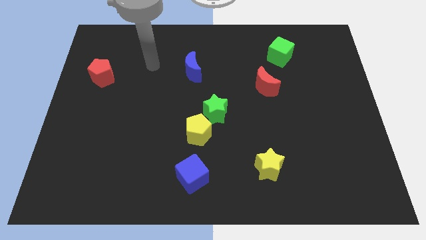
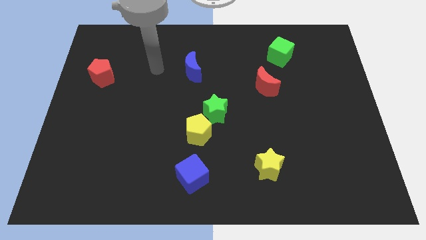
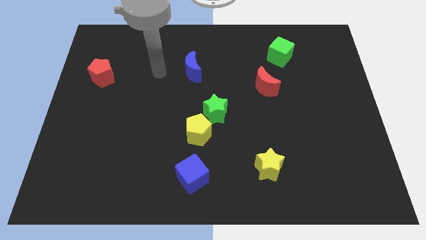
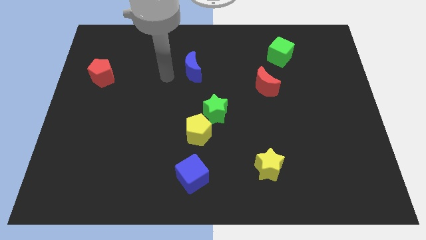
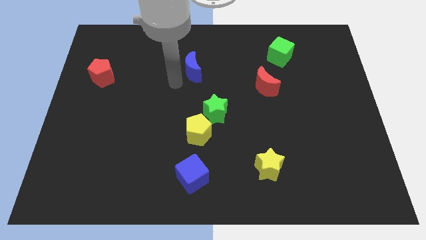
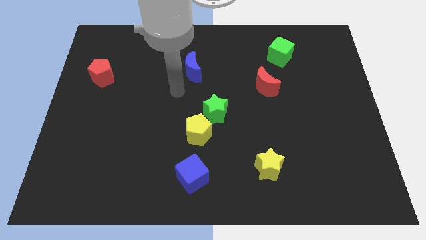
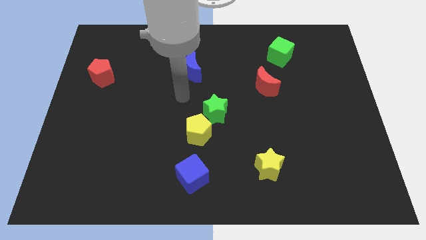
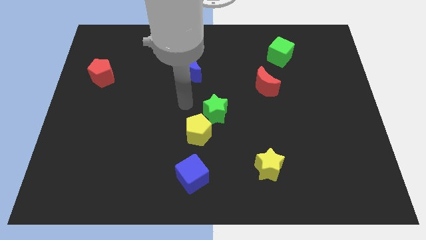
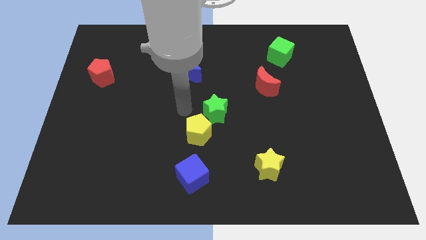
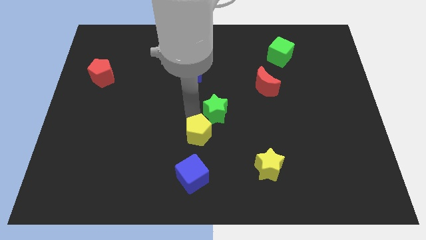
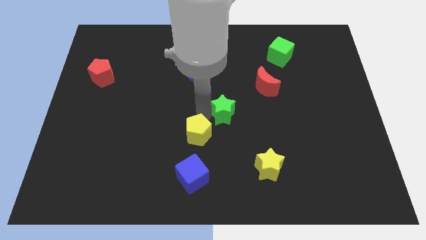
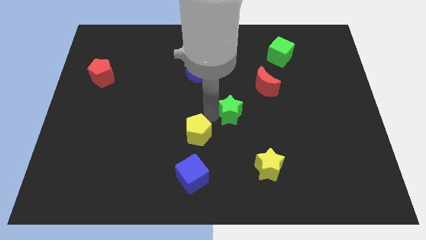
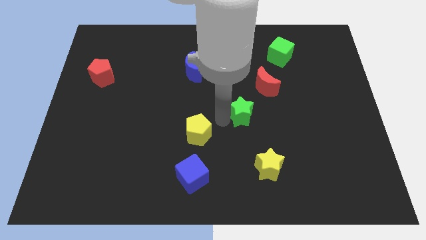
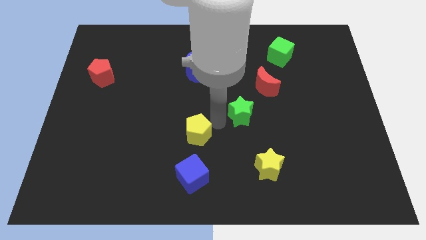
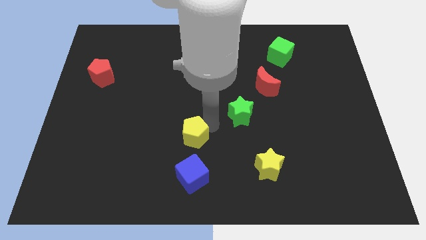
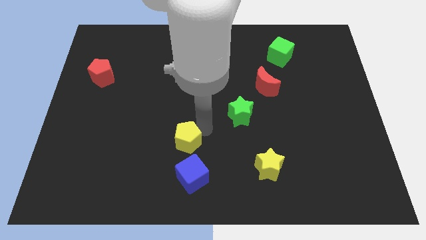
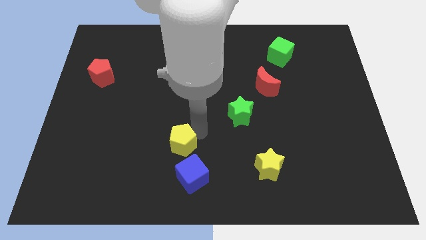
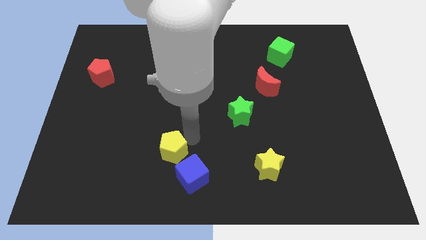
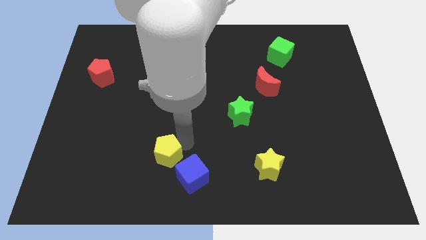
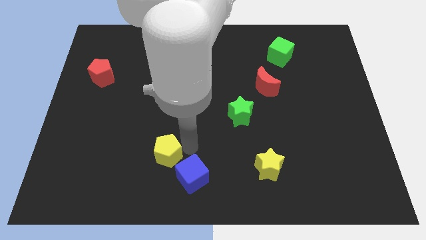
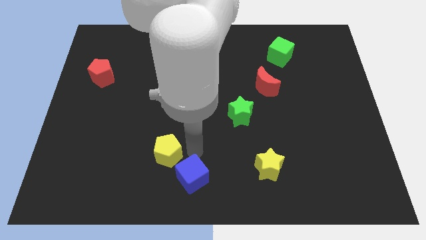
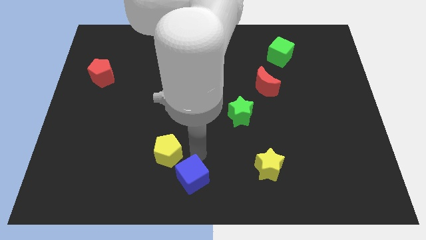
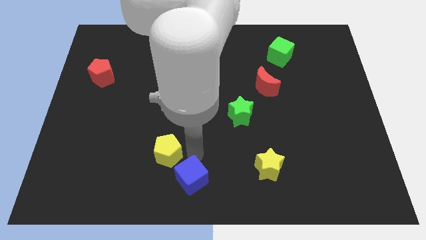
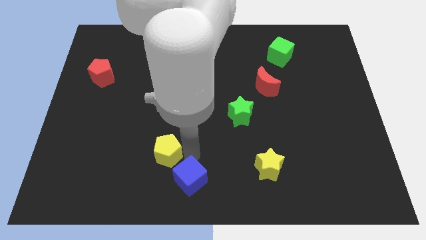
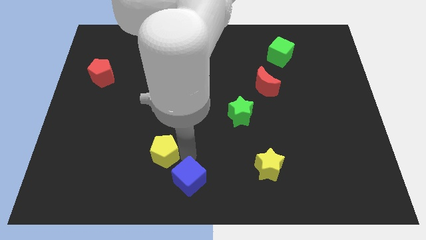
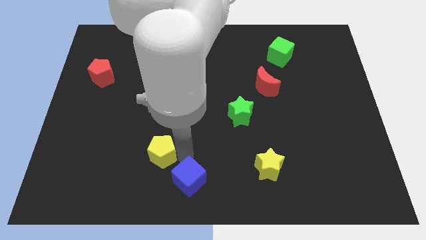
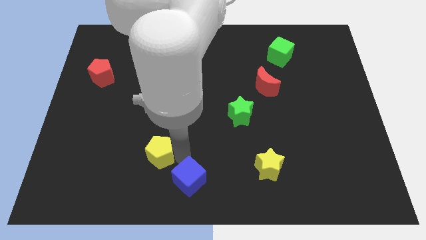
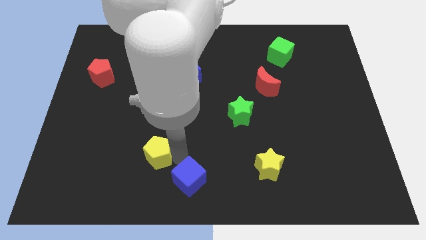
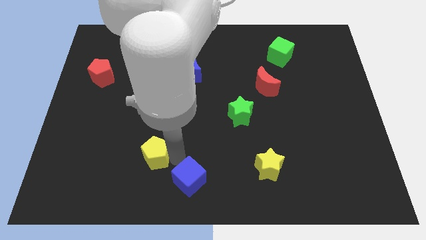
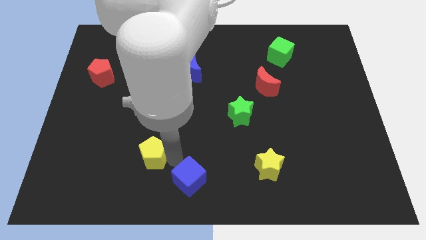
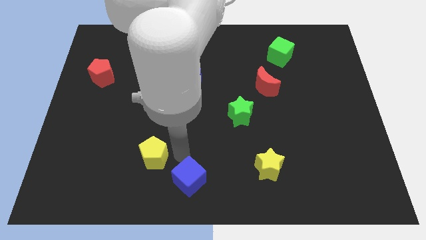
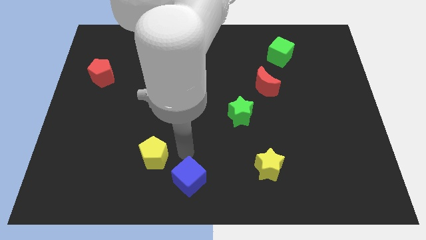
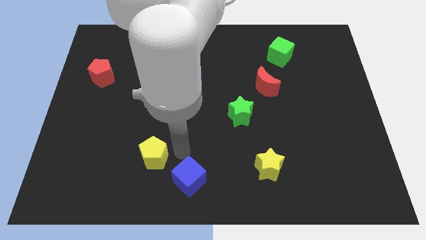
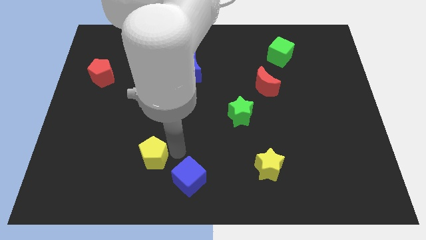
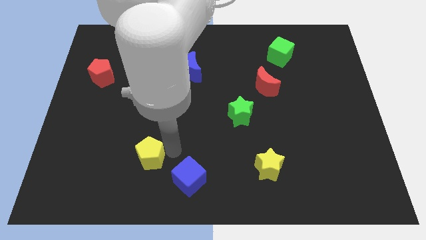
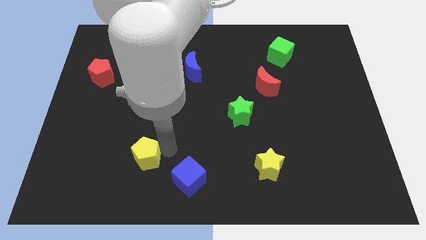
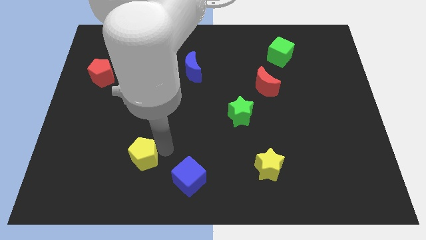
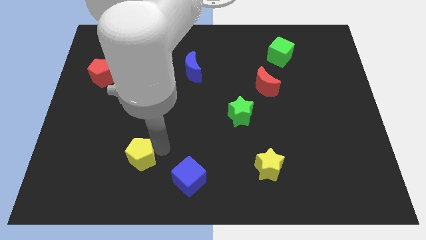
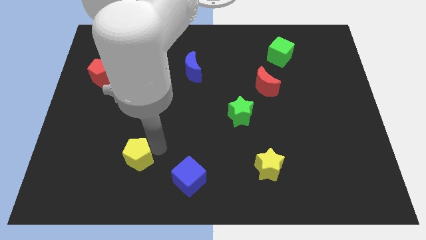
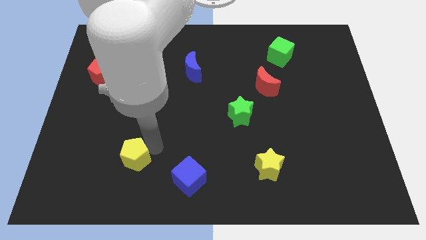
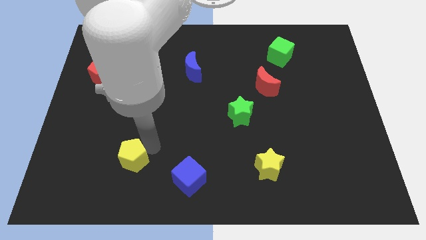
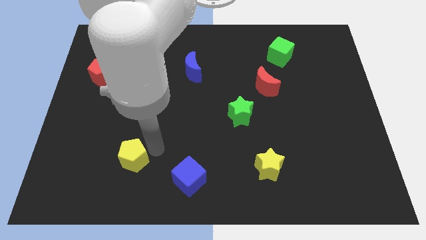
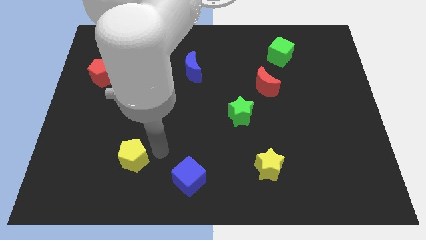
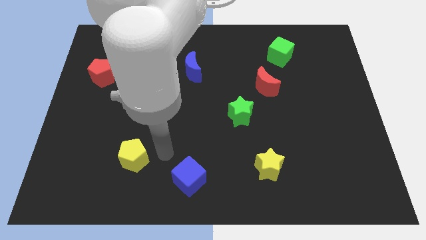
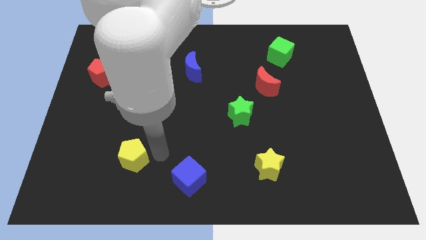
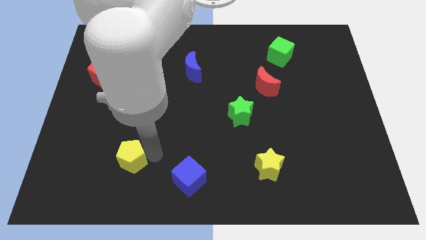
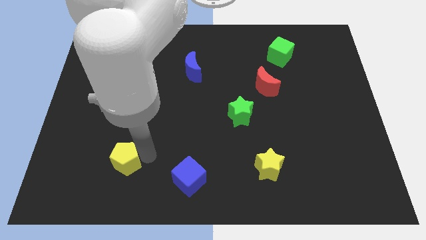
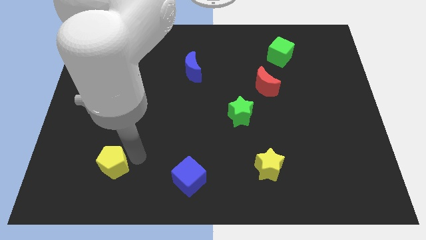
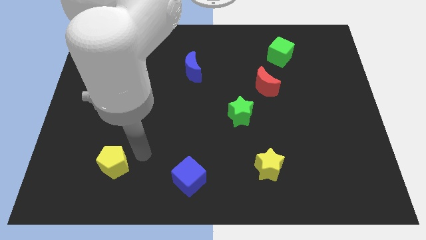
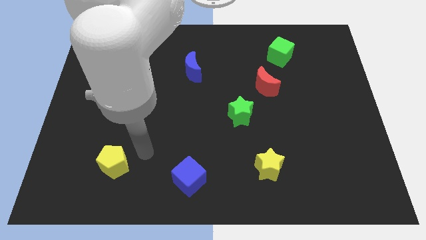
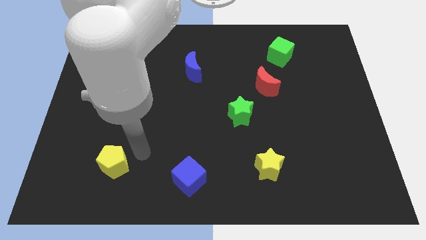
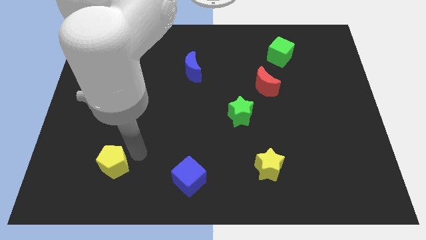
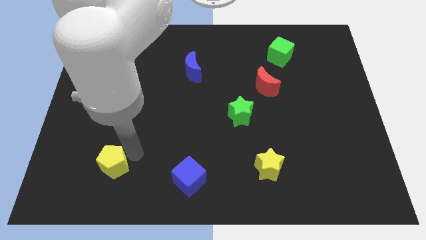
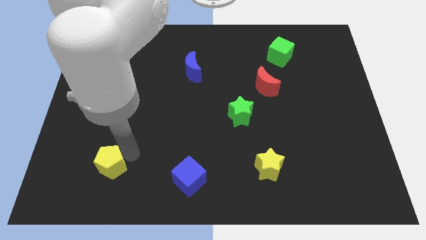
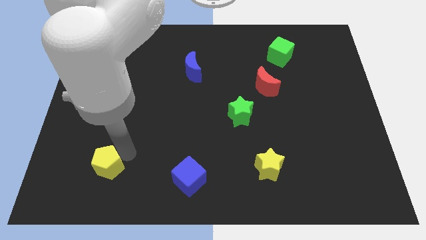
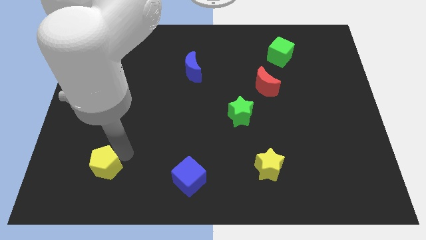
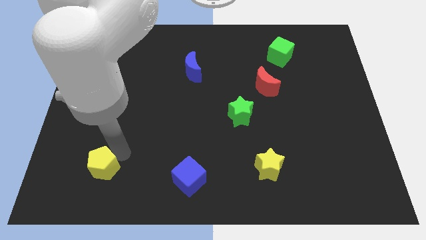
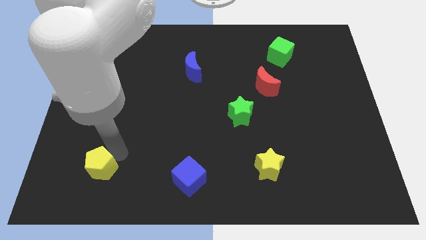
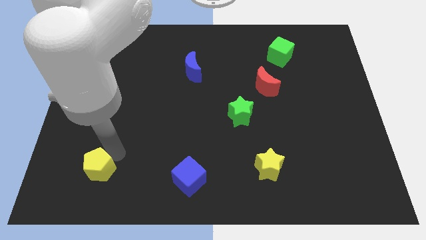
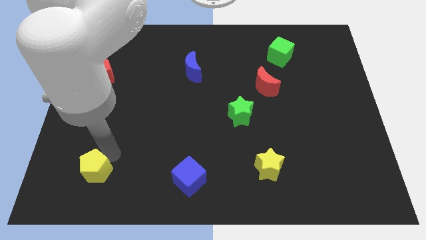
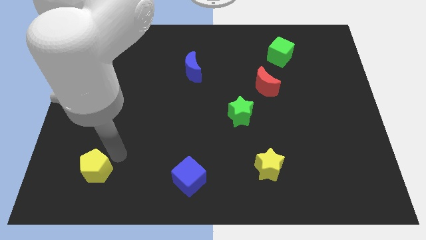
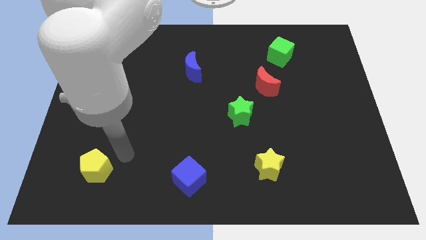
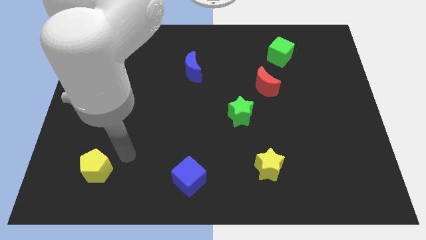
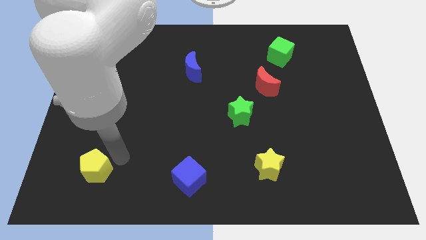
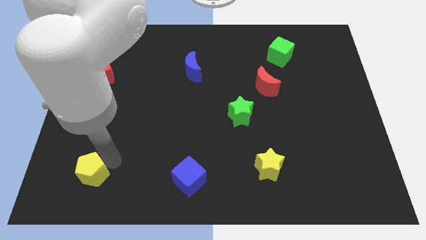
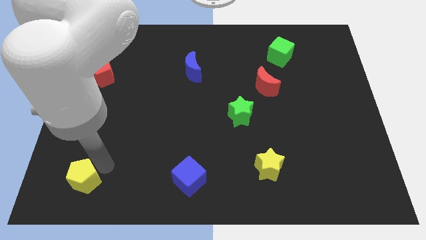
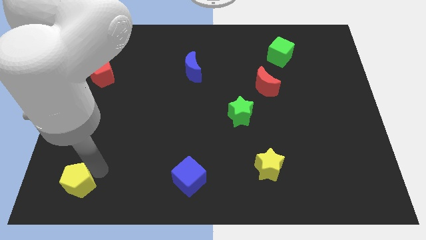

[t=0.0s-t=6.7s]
put the yellow pentagon to the lower left corner
